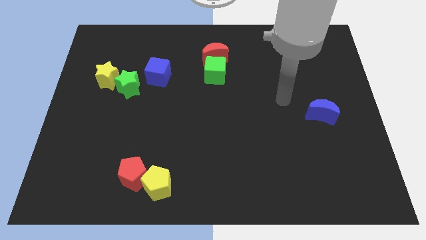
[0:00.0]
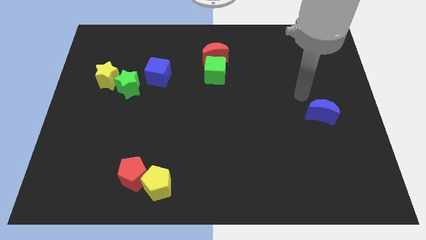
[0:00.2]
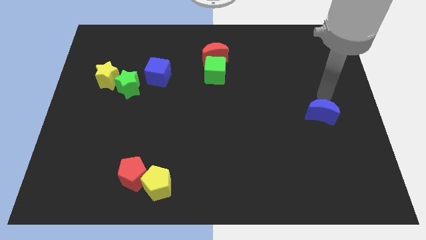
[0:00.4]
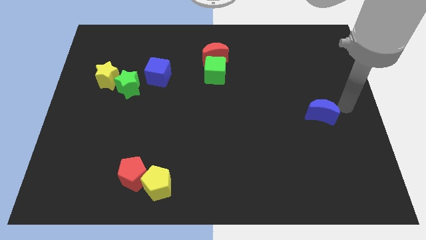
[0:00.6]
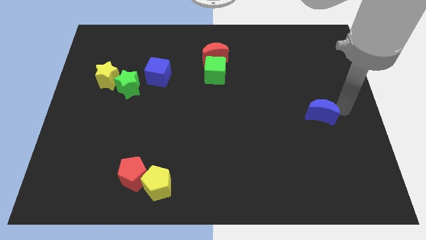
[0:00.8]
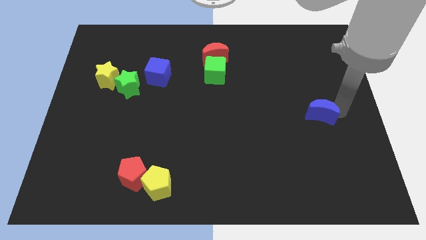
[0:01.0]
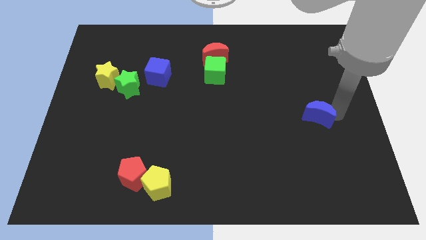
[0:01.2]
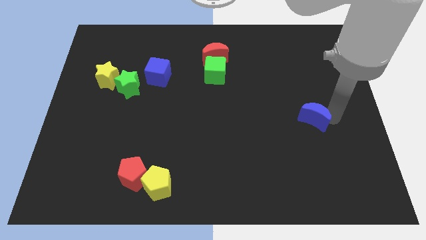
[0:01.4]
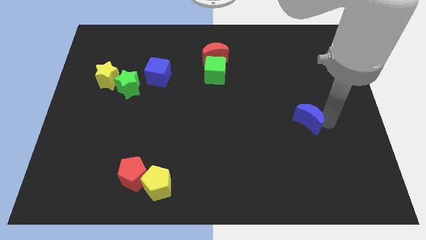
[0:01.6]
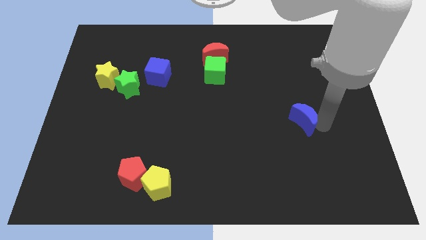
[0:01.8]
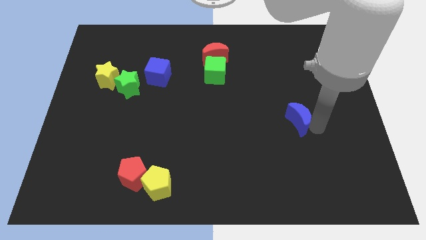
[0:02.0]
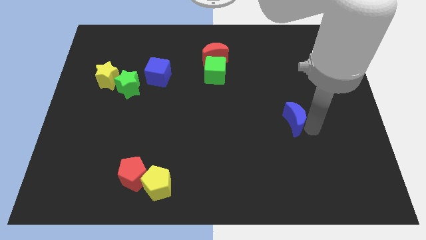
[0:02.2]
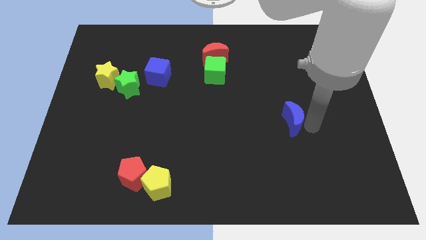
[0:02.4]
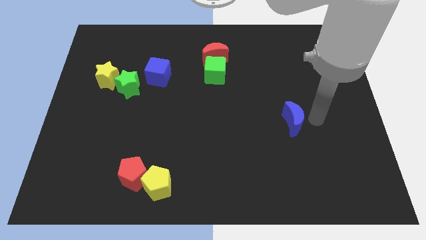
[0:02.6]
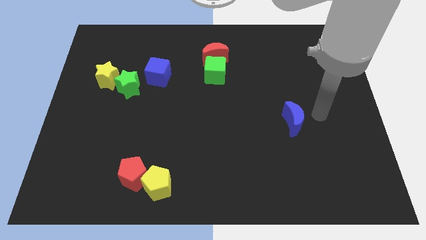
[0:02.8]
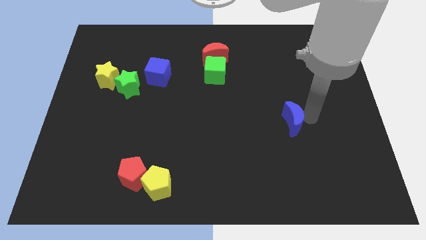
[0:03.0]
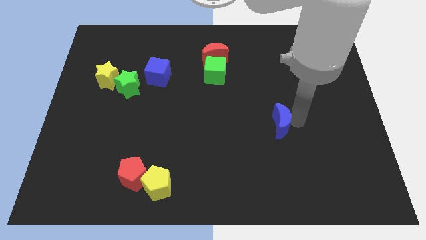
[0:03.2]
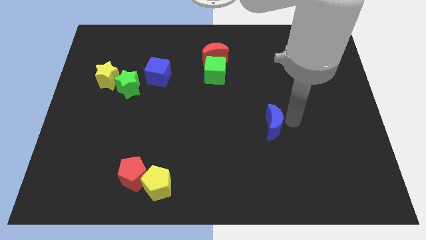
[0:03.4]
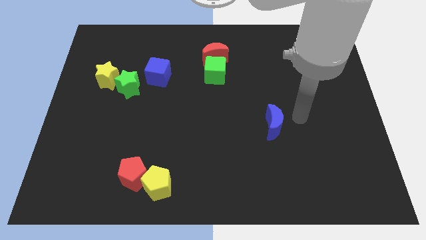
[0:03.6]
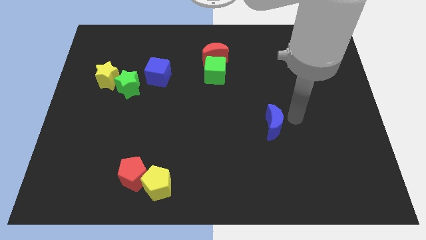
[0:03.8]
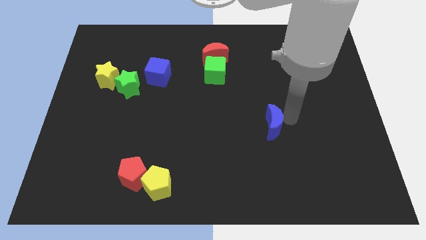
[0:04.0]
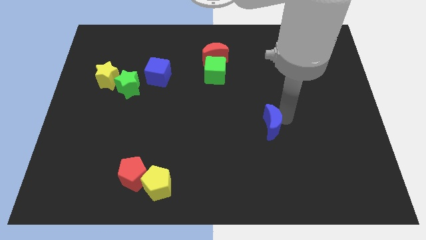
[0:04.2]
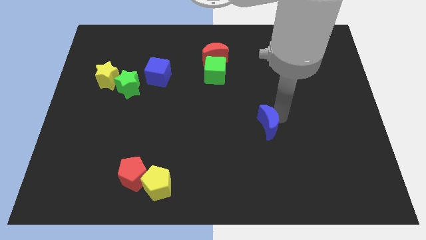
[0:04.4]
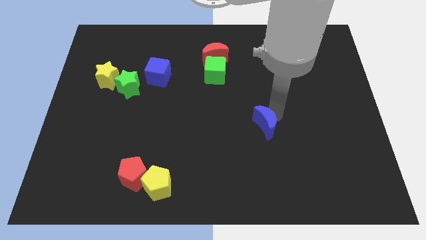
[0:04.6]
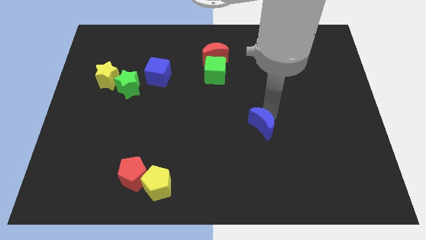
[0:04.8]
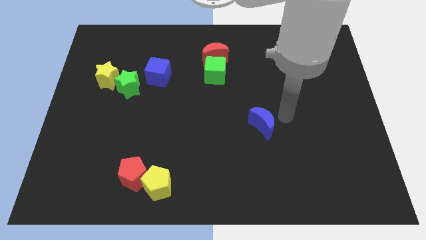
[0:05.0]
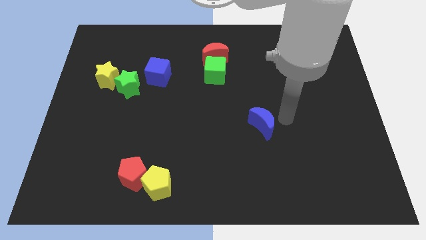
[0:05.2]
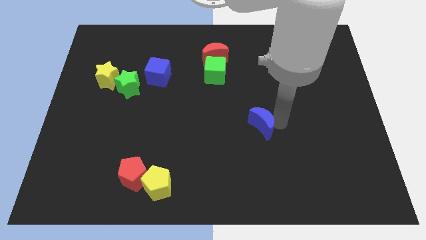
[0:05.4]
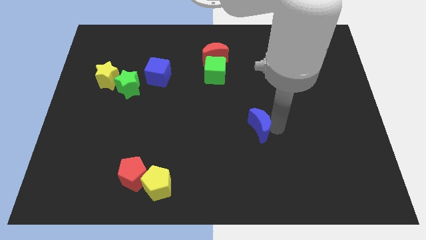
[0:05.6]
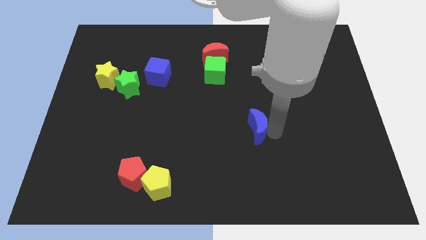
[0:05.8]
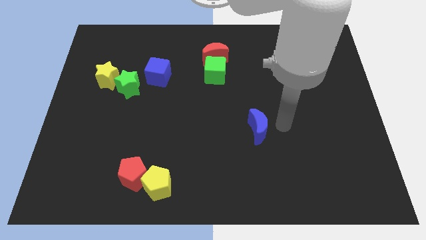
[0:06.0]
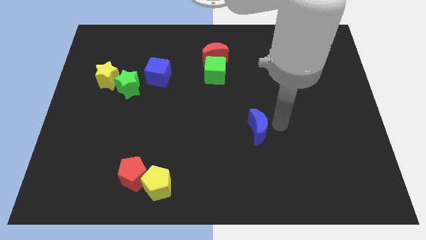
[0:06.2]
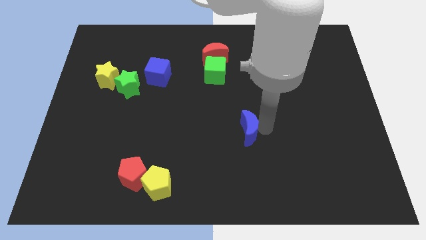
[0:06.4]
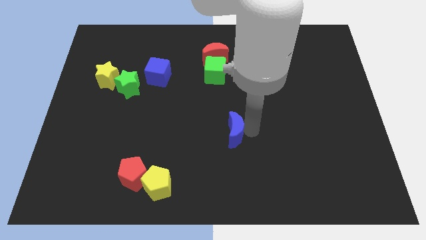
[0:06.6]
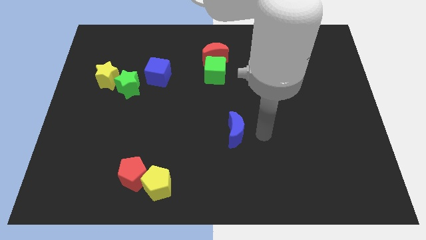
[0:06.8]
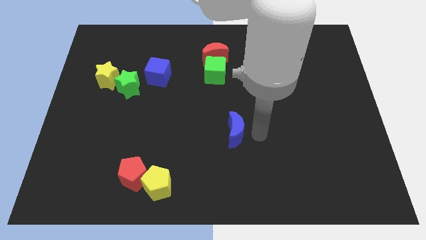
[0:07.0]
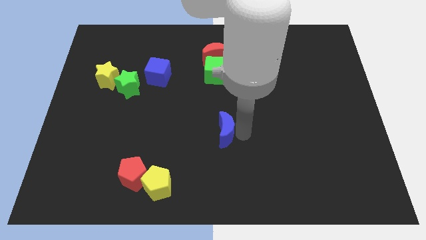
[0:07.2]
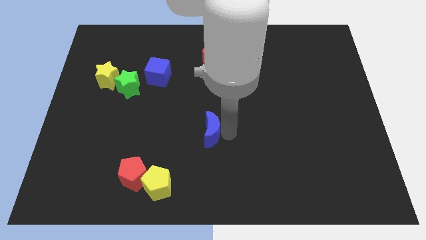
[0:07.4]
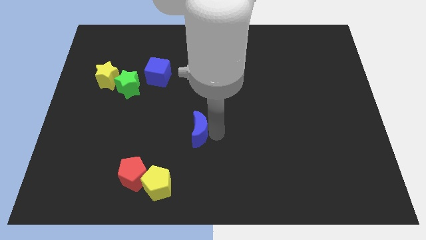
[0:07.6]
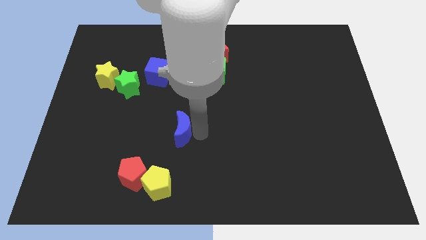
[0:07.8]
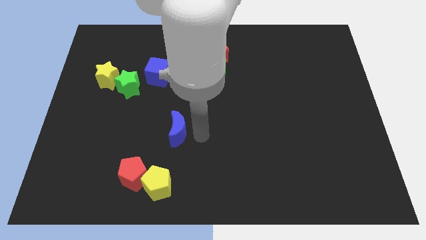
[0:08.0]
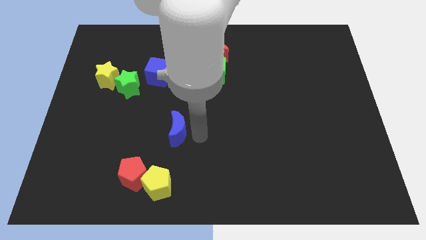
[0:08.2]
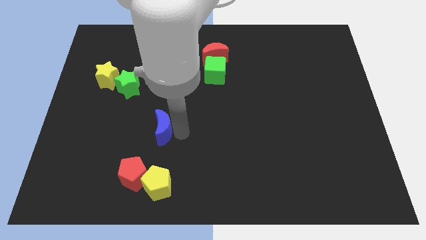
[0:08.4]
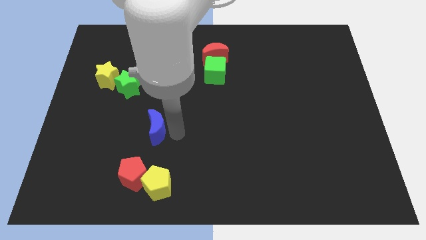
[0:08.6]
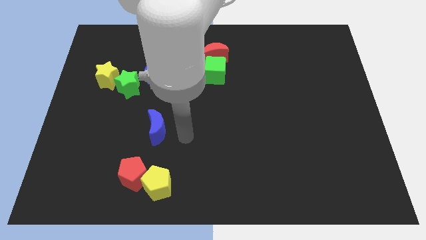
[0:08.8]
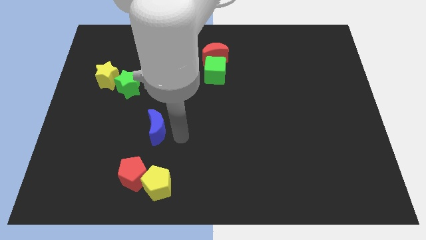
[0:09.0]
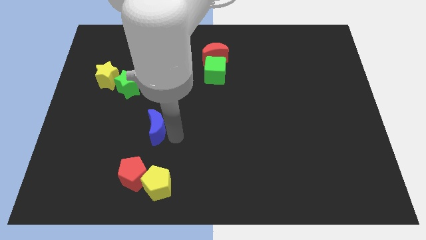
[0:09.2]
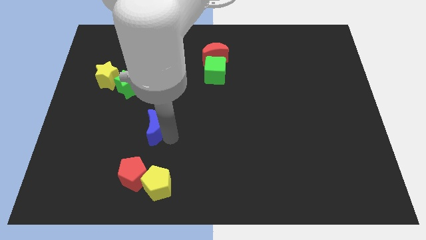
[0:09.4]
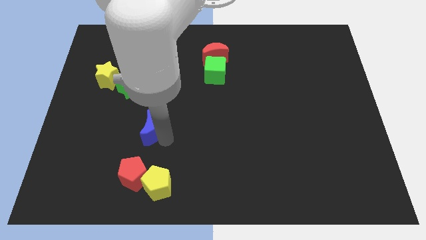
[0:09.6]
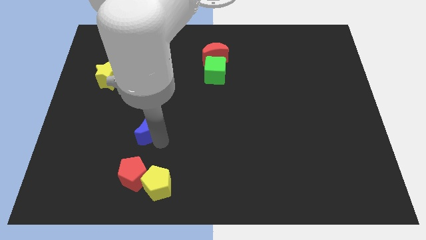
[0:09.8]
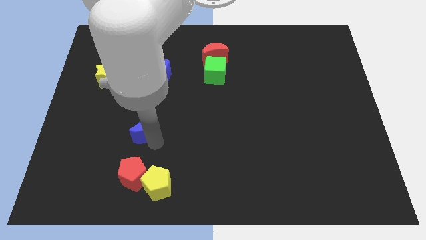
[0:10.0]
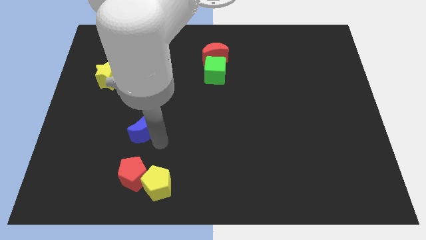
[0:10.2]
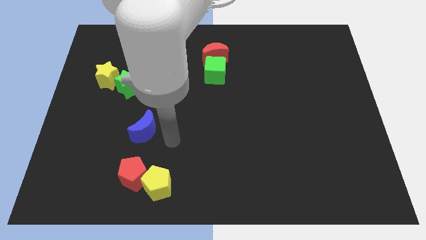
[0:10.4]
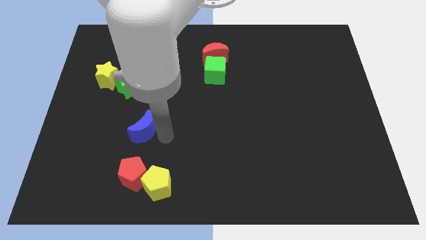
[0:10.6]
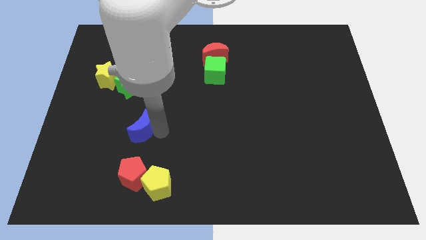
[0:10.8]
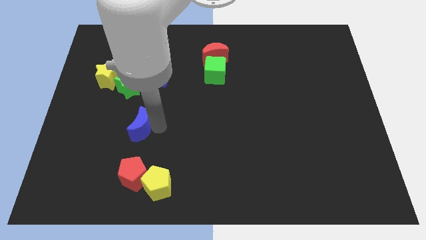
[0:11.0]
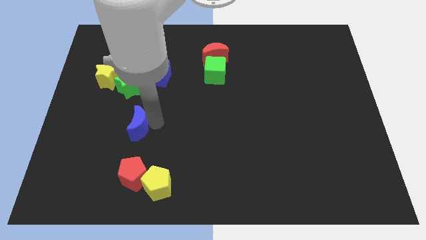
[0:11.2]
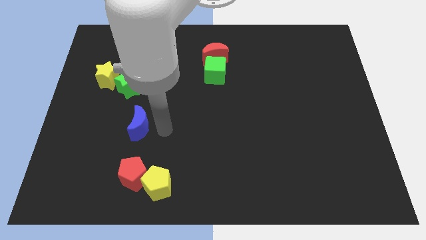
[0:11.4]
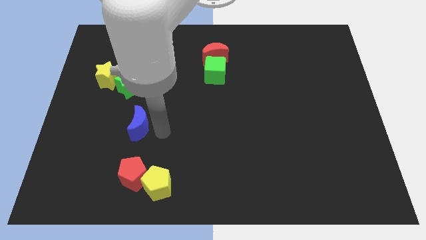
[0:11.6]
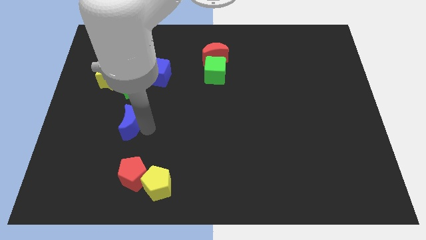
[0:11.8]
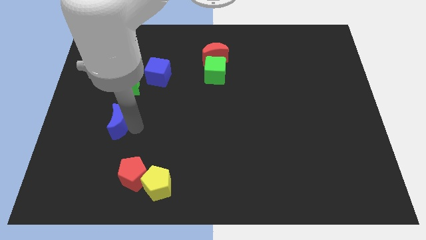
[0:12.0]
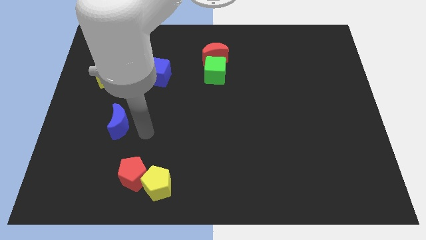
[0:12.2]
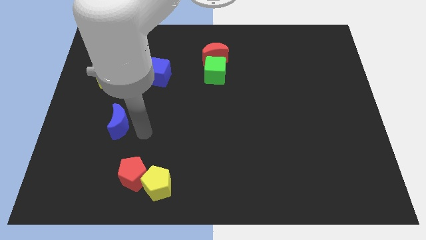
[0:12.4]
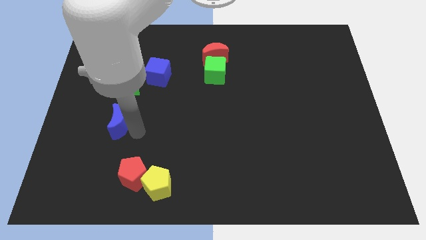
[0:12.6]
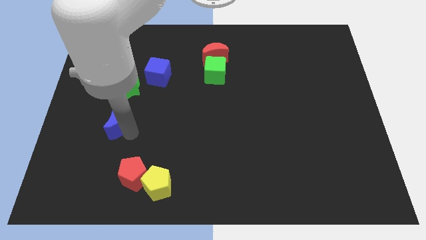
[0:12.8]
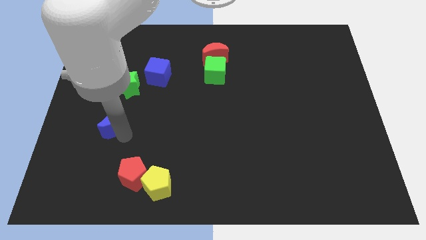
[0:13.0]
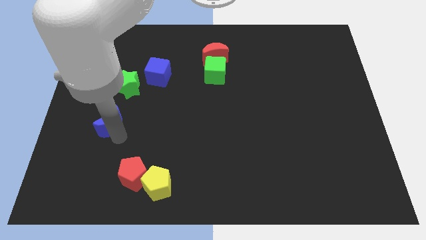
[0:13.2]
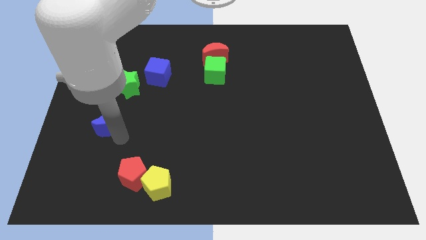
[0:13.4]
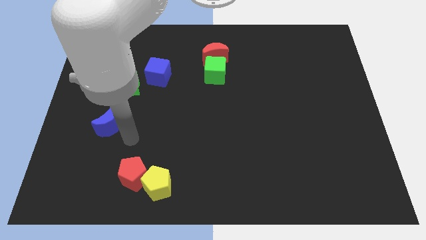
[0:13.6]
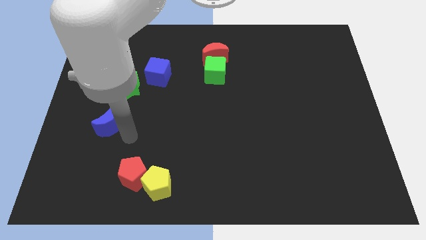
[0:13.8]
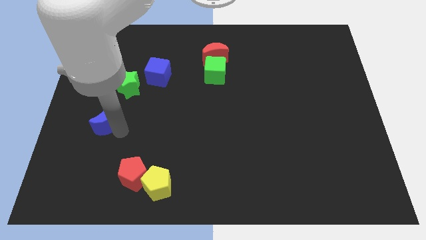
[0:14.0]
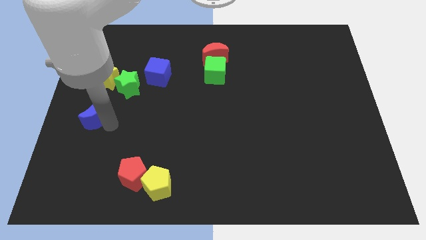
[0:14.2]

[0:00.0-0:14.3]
put the blue moon to the center left

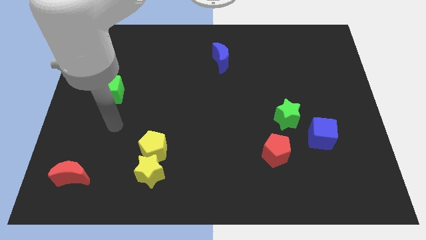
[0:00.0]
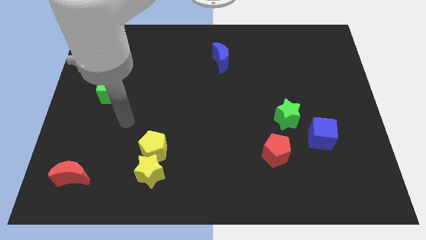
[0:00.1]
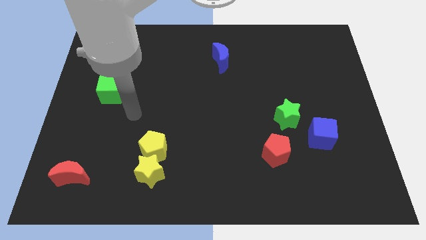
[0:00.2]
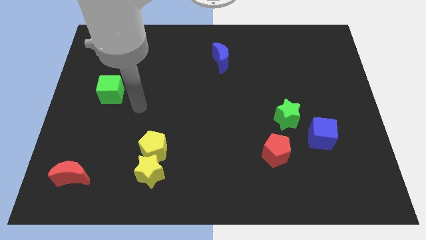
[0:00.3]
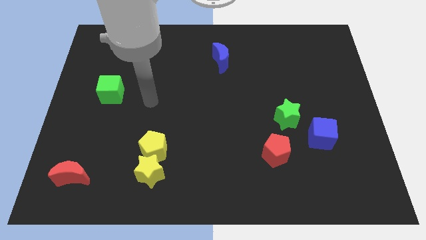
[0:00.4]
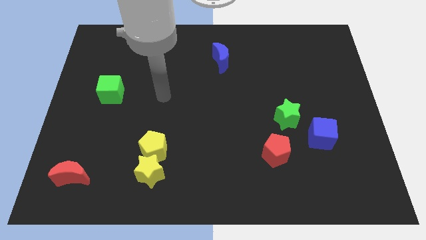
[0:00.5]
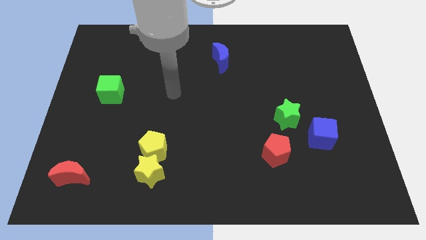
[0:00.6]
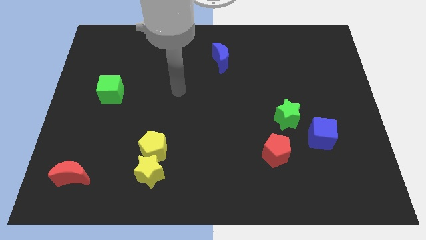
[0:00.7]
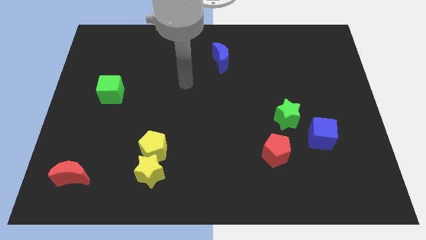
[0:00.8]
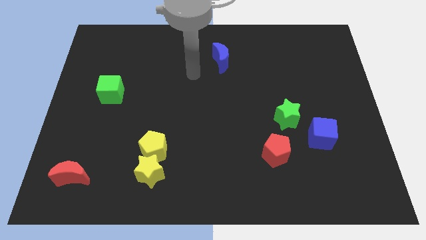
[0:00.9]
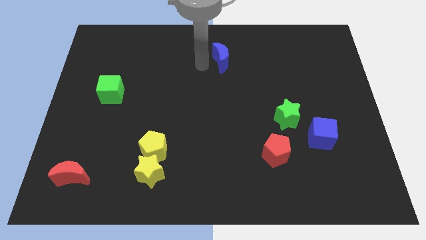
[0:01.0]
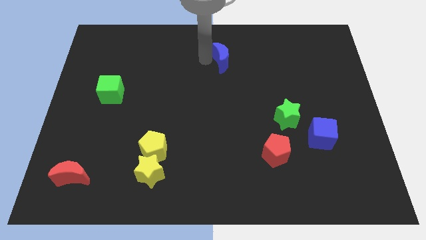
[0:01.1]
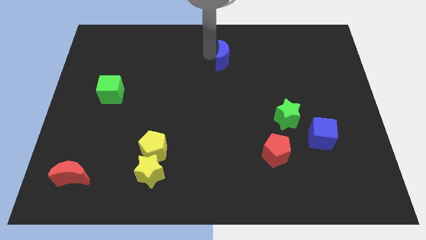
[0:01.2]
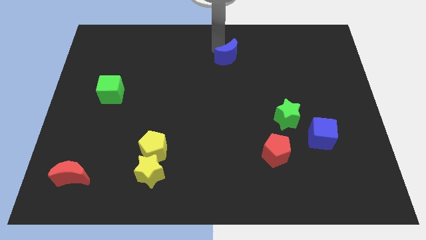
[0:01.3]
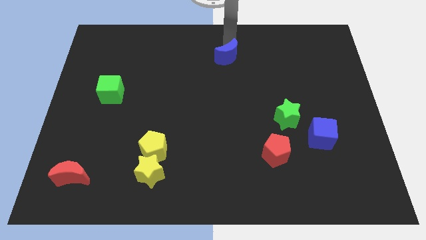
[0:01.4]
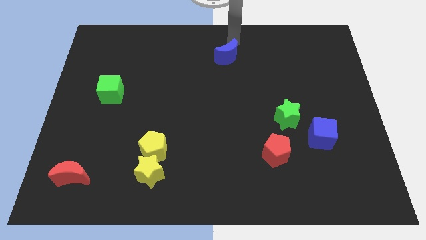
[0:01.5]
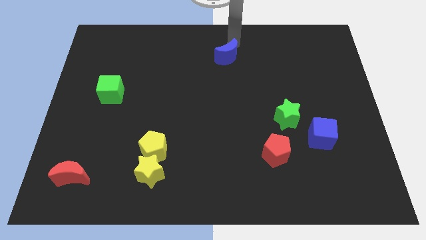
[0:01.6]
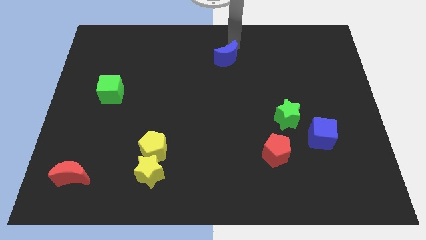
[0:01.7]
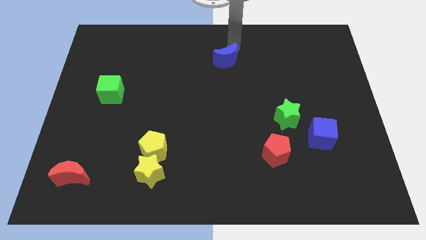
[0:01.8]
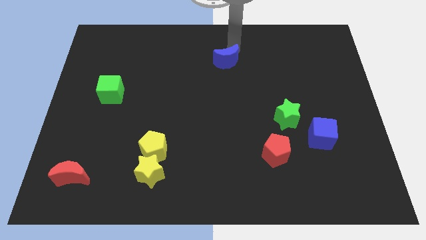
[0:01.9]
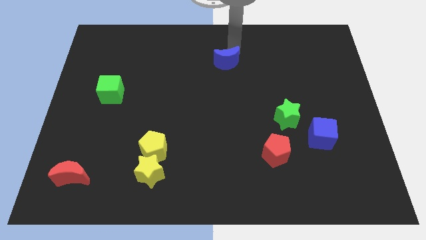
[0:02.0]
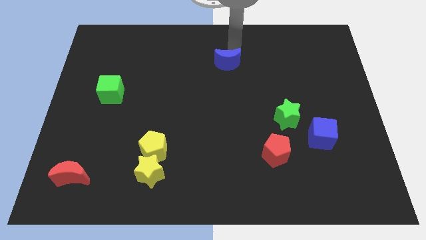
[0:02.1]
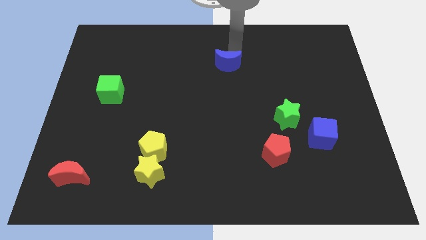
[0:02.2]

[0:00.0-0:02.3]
put the blue moon to the center of the board
